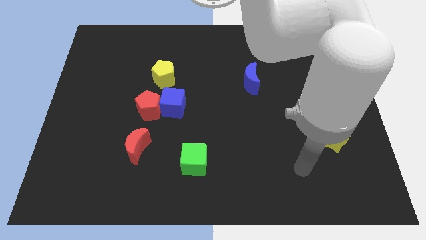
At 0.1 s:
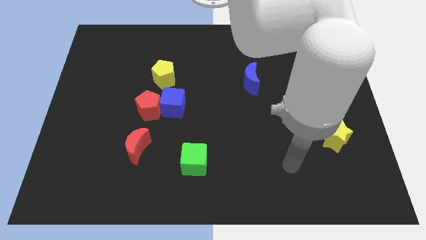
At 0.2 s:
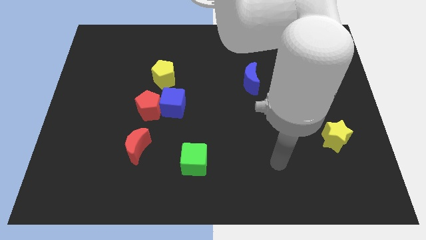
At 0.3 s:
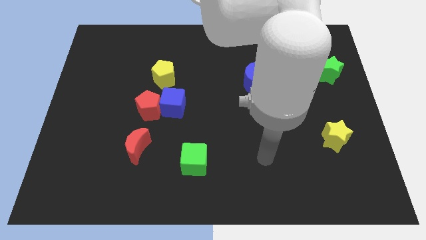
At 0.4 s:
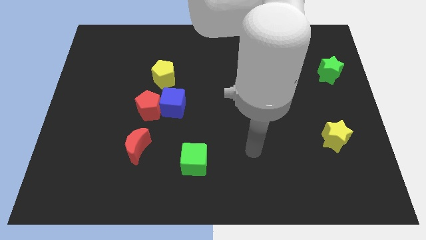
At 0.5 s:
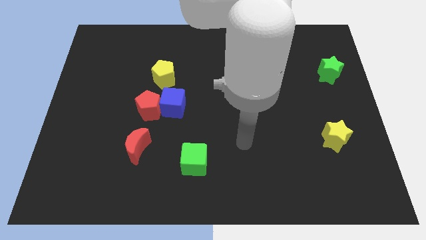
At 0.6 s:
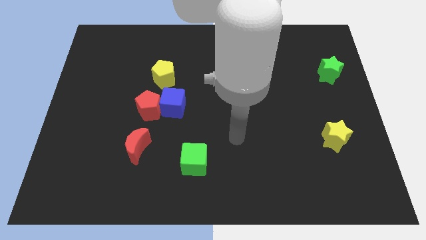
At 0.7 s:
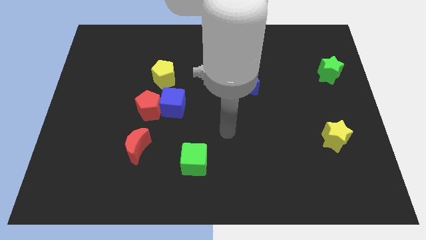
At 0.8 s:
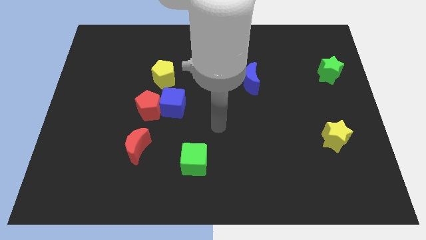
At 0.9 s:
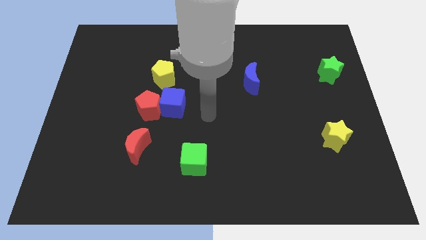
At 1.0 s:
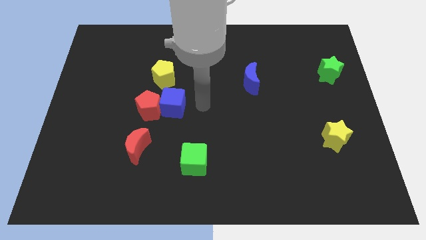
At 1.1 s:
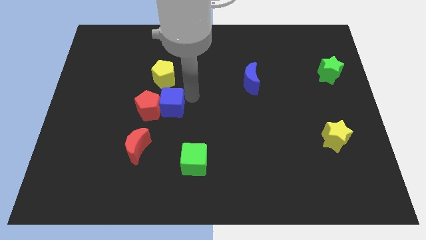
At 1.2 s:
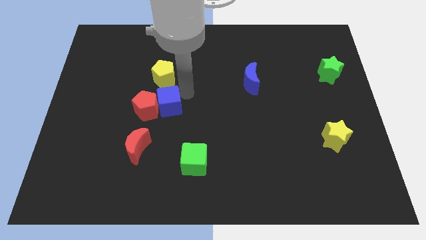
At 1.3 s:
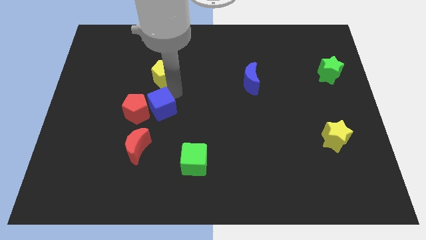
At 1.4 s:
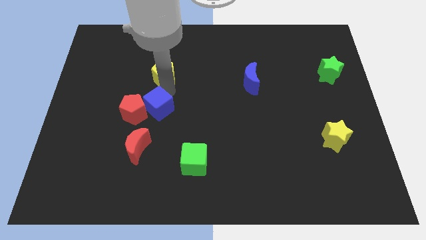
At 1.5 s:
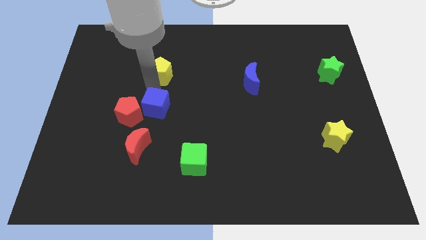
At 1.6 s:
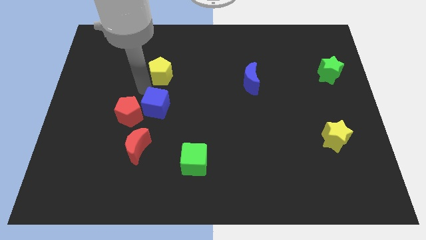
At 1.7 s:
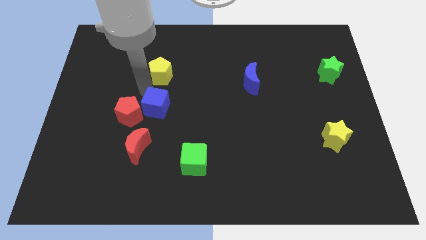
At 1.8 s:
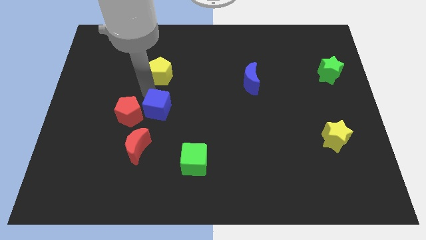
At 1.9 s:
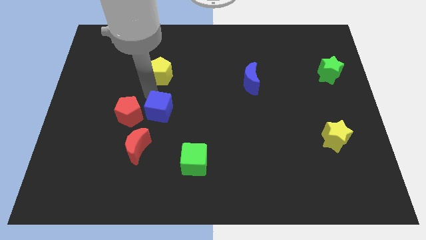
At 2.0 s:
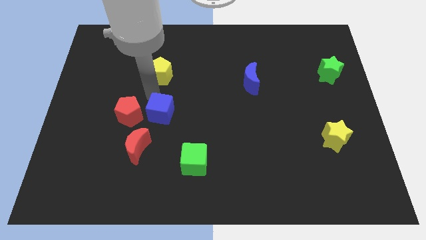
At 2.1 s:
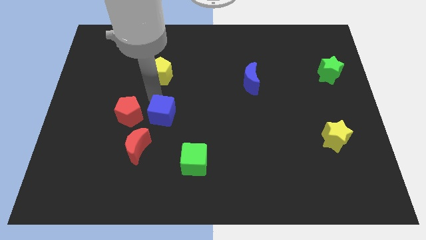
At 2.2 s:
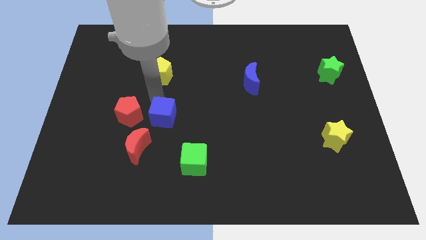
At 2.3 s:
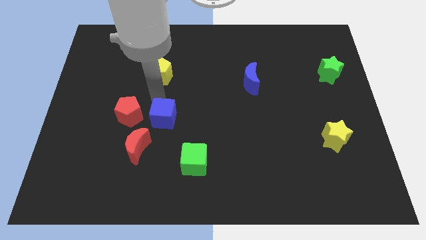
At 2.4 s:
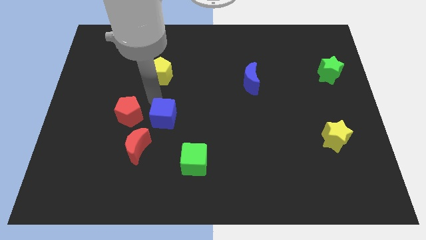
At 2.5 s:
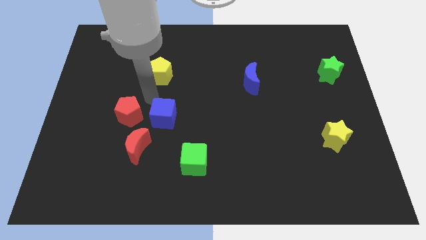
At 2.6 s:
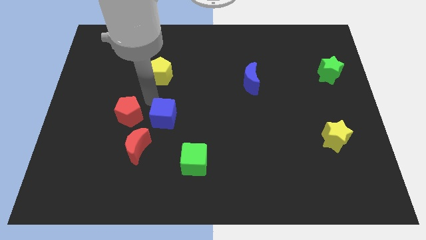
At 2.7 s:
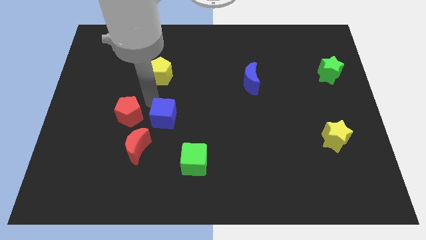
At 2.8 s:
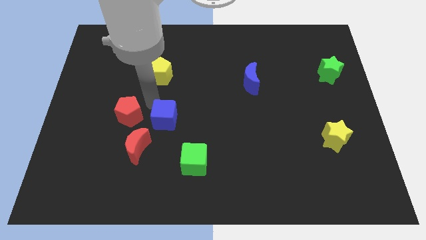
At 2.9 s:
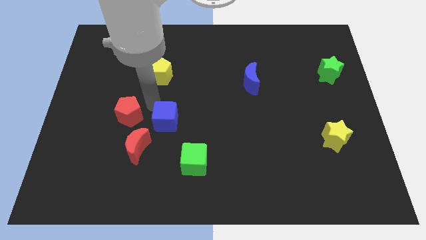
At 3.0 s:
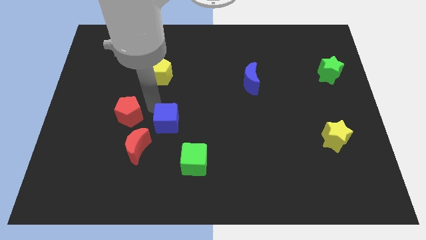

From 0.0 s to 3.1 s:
separate the blue cube from the red pentagon and yellow pentagon

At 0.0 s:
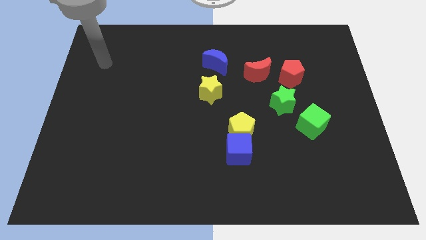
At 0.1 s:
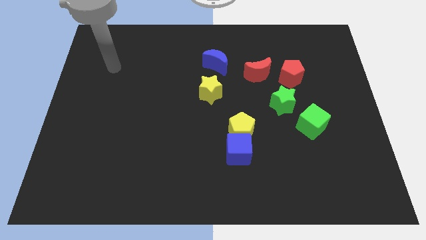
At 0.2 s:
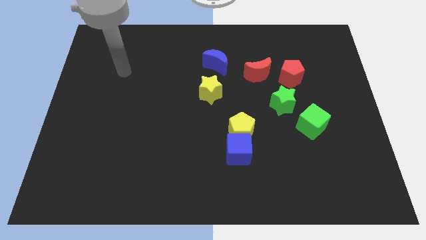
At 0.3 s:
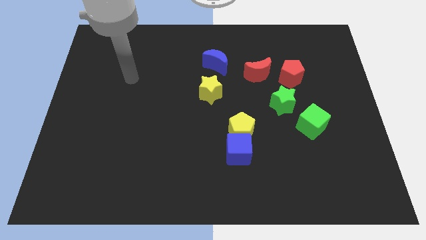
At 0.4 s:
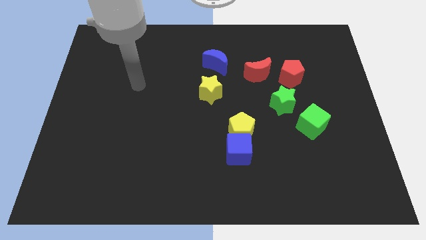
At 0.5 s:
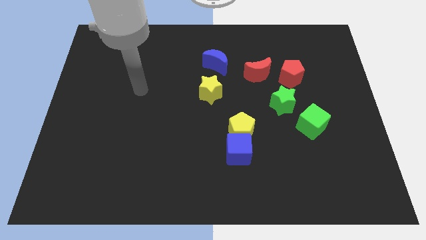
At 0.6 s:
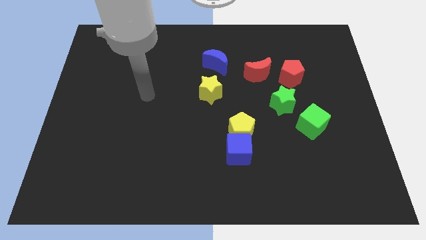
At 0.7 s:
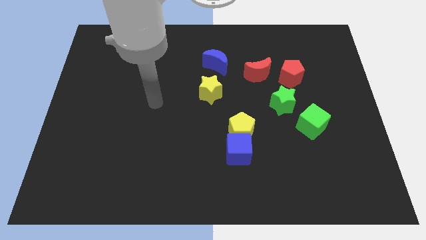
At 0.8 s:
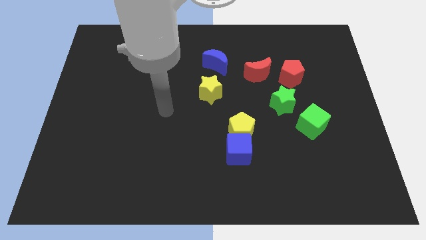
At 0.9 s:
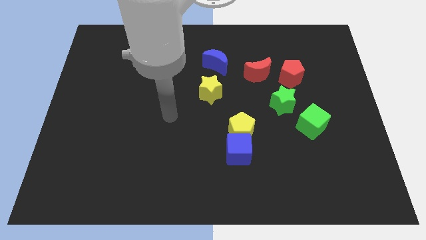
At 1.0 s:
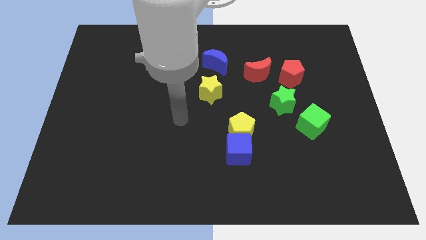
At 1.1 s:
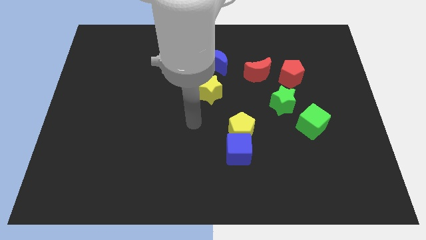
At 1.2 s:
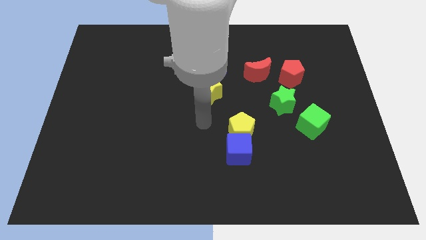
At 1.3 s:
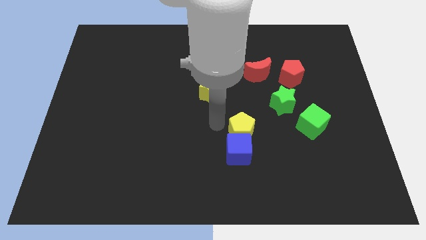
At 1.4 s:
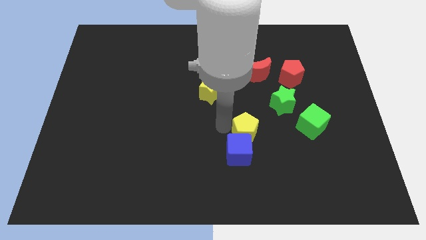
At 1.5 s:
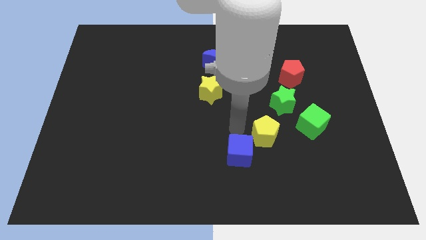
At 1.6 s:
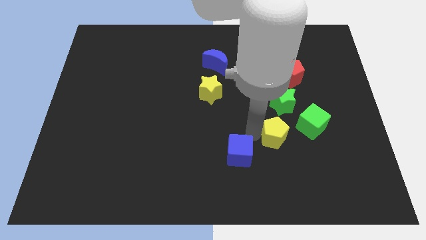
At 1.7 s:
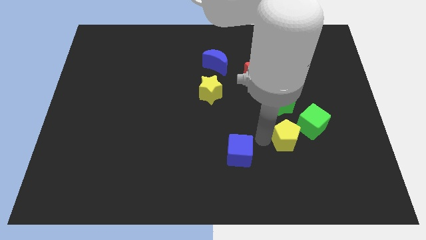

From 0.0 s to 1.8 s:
move the blue cube away from the yellow pentagon

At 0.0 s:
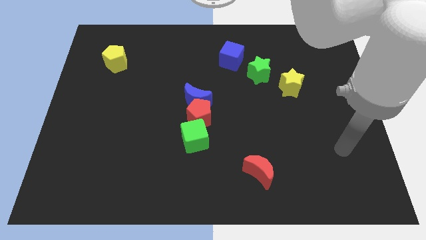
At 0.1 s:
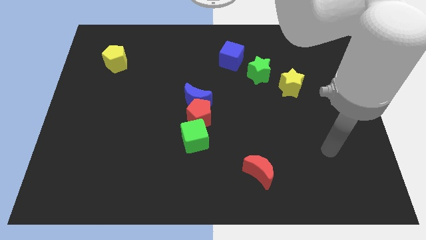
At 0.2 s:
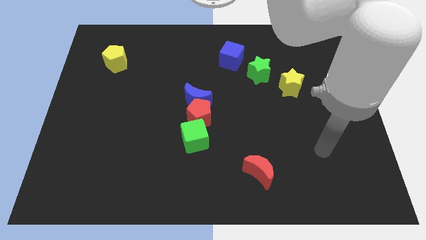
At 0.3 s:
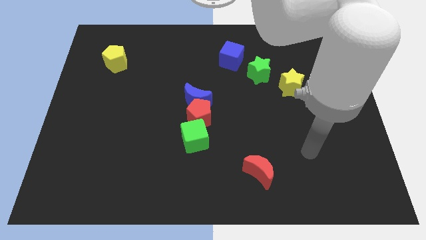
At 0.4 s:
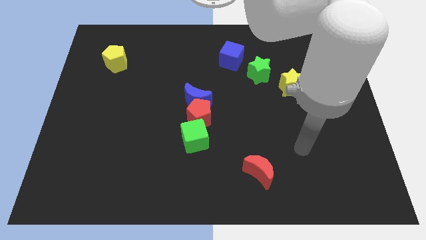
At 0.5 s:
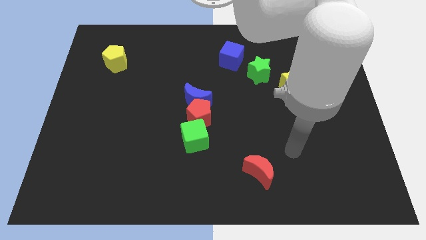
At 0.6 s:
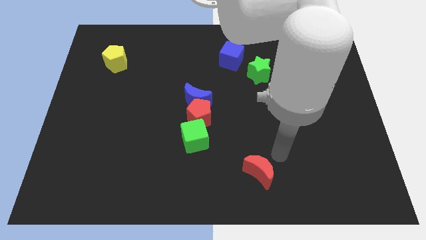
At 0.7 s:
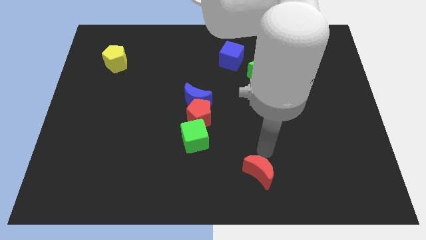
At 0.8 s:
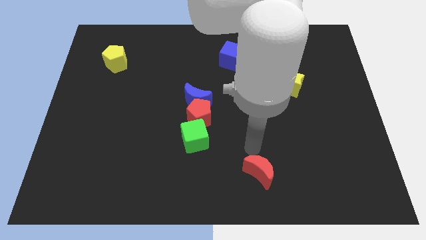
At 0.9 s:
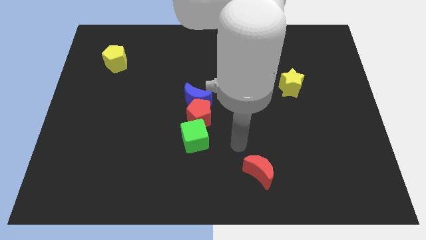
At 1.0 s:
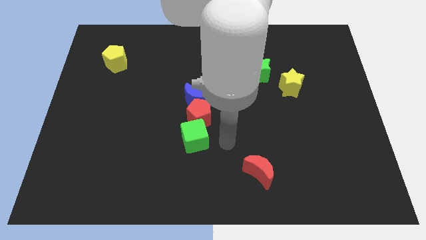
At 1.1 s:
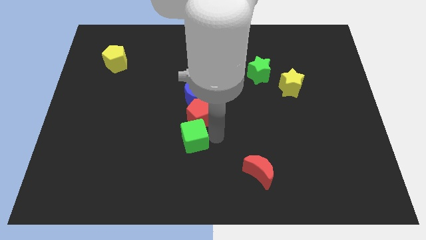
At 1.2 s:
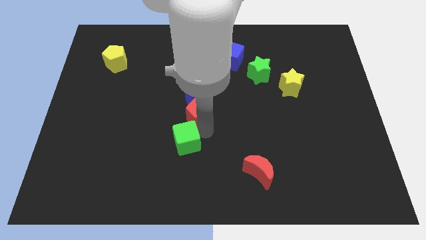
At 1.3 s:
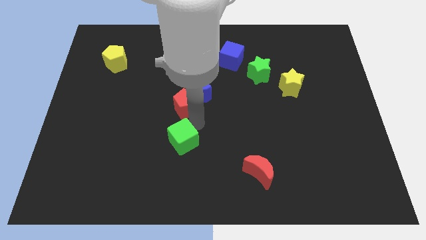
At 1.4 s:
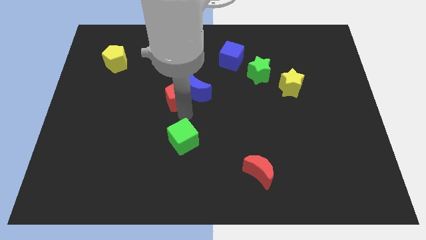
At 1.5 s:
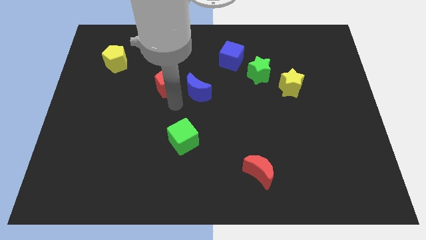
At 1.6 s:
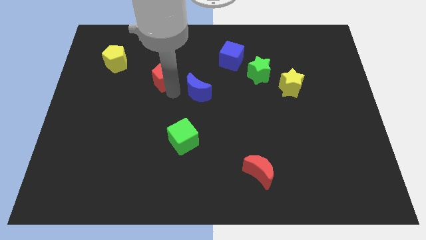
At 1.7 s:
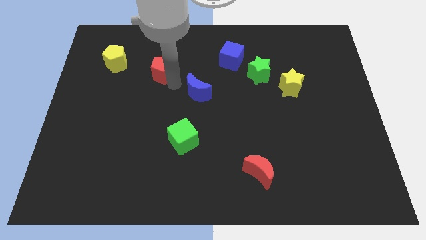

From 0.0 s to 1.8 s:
separate the blue moon from the red pentagon

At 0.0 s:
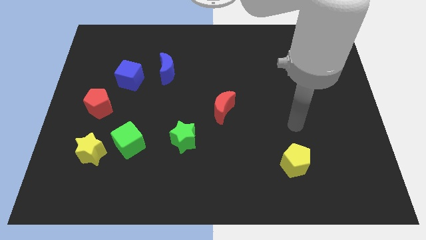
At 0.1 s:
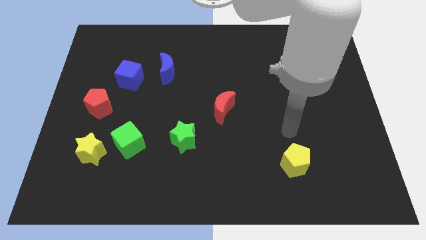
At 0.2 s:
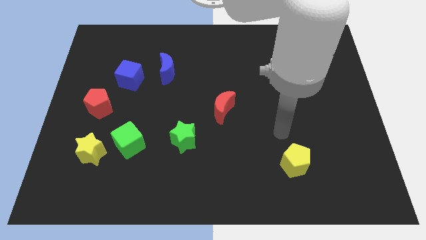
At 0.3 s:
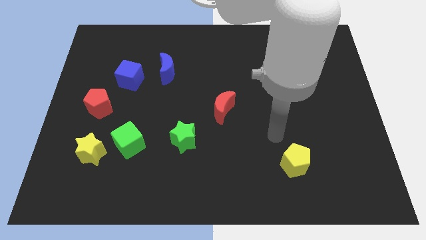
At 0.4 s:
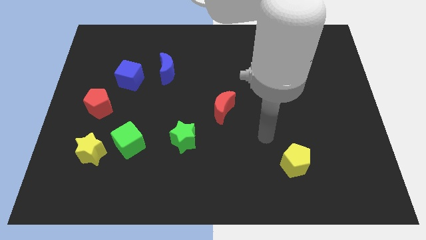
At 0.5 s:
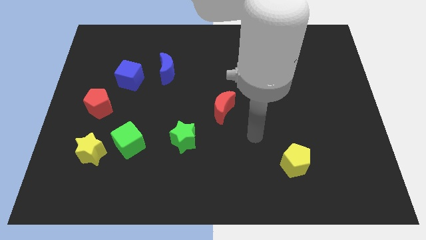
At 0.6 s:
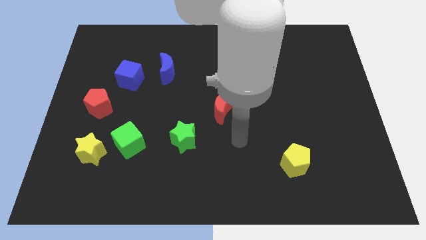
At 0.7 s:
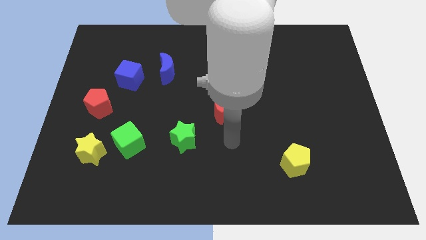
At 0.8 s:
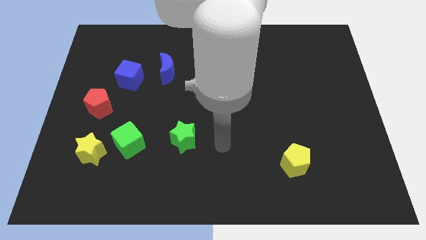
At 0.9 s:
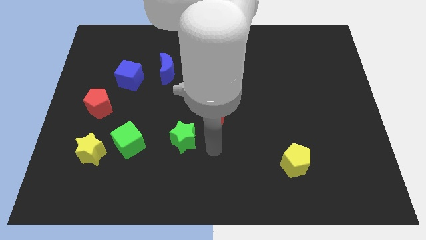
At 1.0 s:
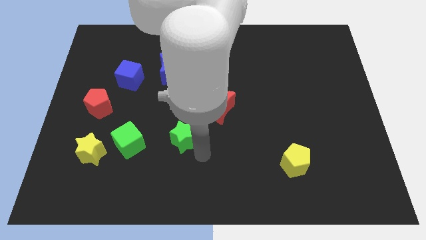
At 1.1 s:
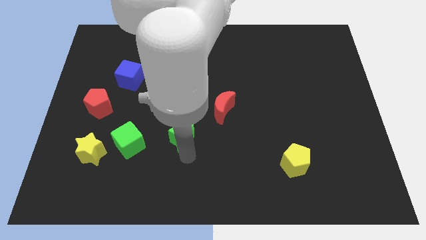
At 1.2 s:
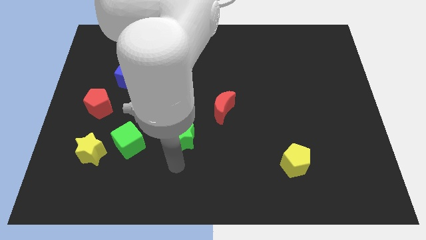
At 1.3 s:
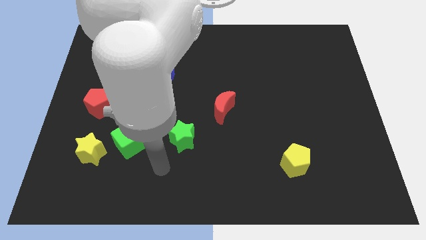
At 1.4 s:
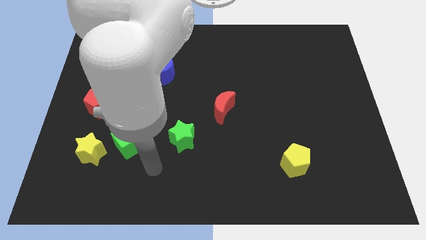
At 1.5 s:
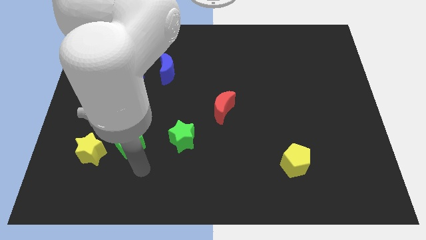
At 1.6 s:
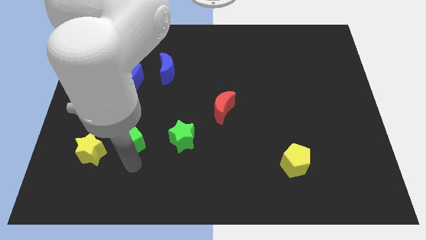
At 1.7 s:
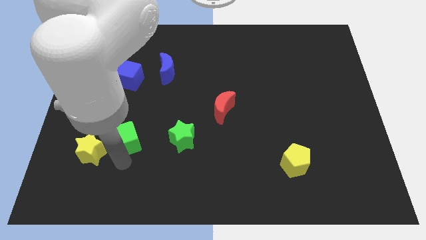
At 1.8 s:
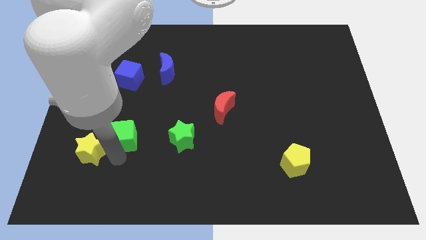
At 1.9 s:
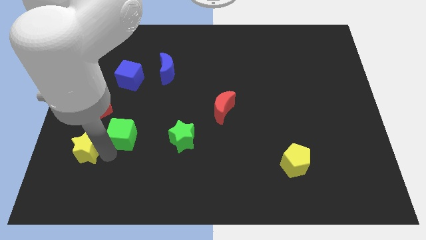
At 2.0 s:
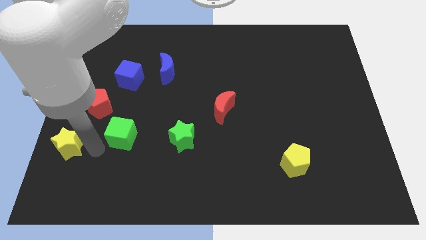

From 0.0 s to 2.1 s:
separate the green cube from the yellow star

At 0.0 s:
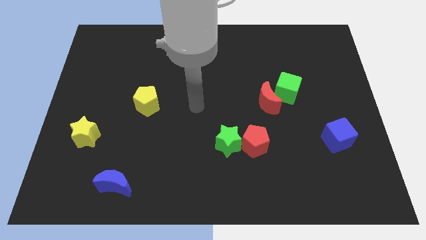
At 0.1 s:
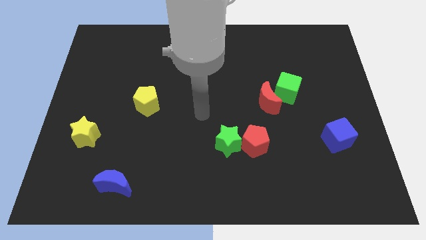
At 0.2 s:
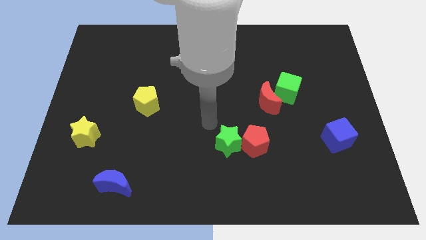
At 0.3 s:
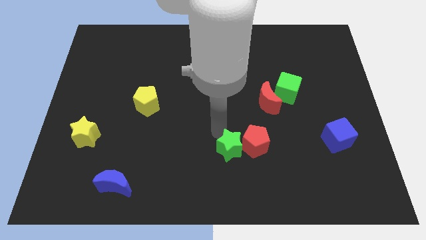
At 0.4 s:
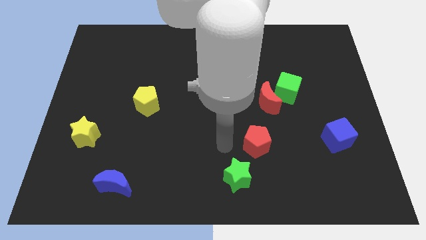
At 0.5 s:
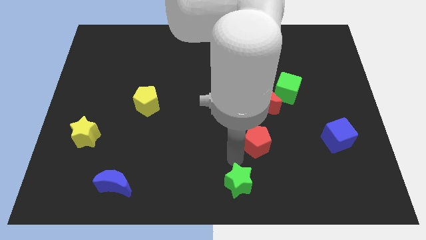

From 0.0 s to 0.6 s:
separate the red pentagon from the green star
